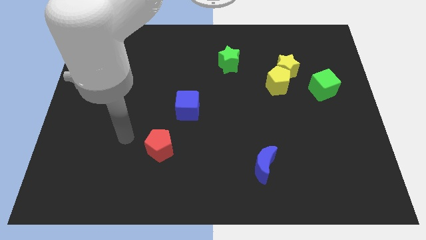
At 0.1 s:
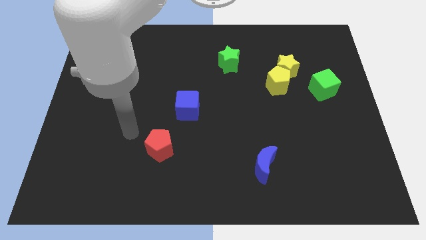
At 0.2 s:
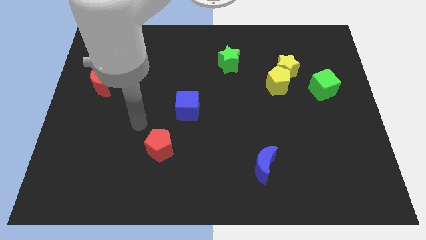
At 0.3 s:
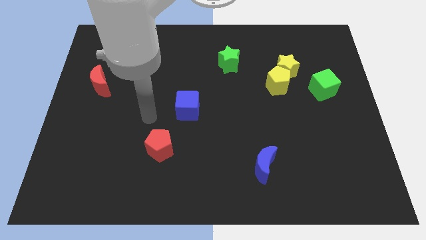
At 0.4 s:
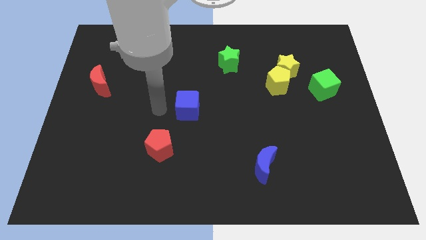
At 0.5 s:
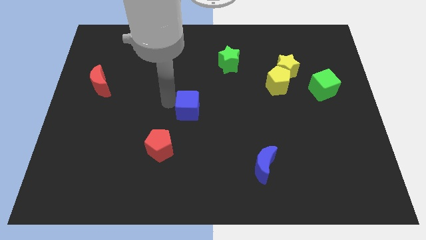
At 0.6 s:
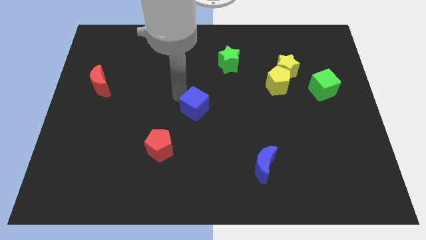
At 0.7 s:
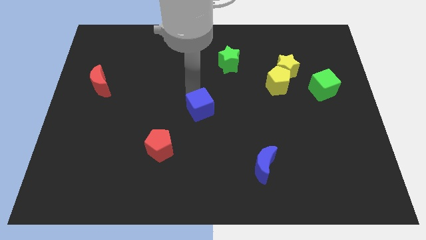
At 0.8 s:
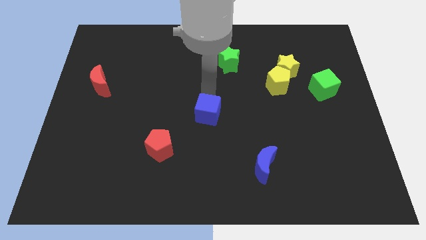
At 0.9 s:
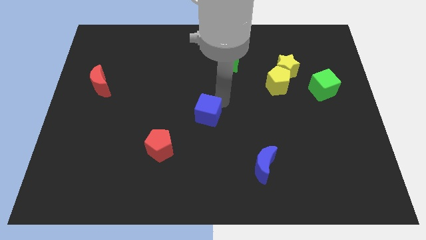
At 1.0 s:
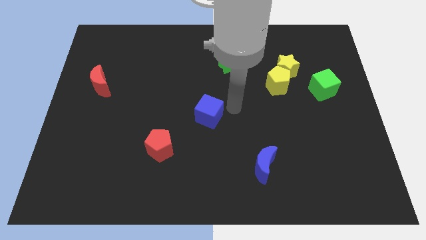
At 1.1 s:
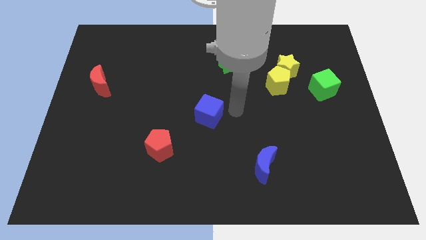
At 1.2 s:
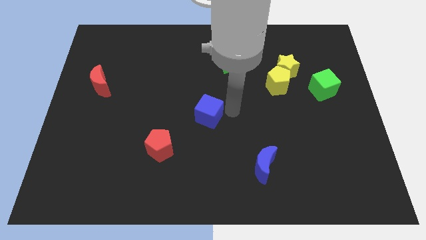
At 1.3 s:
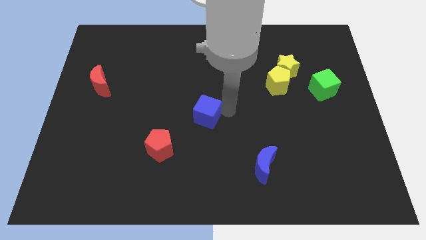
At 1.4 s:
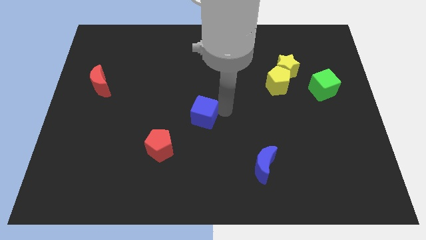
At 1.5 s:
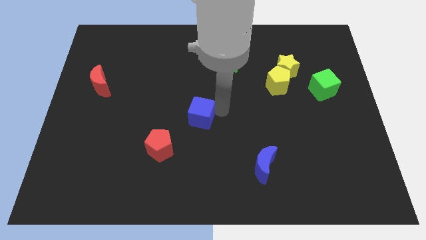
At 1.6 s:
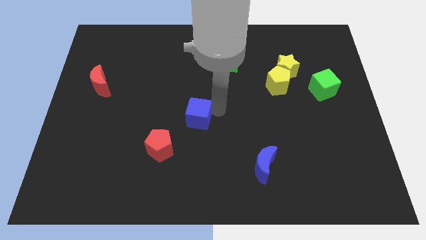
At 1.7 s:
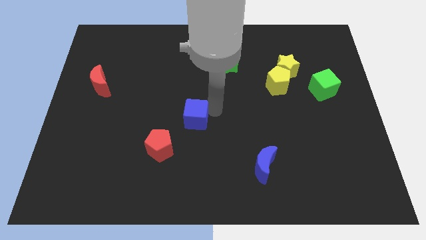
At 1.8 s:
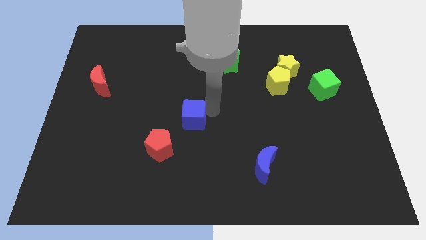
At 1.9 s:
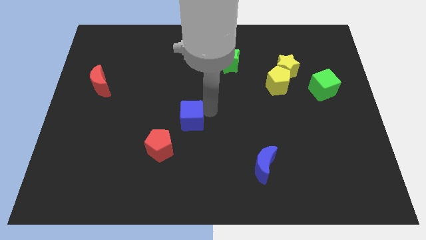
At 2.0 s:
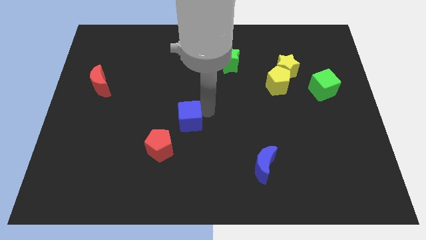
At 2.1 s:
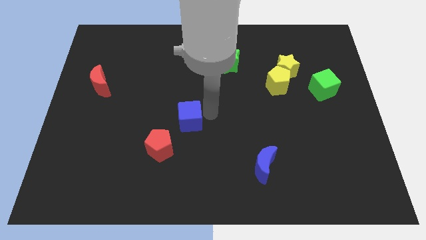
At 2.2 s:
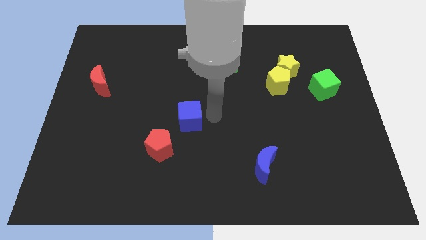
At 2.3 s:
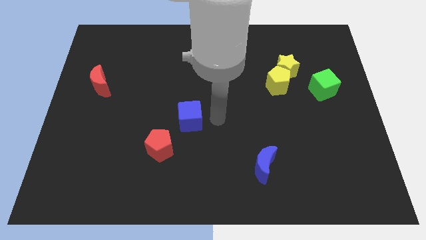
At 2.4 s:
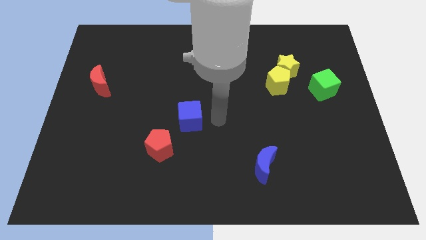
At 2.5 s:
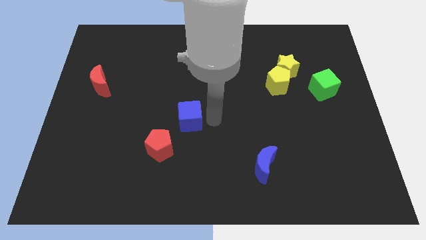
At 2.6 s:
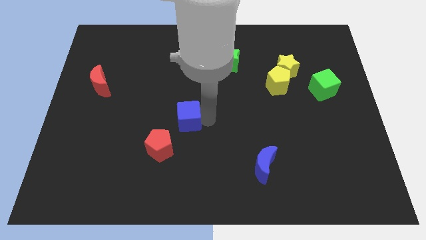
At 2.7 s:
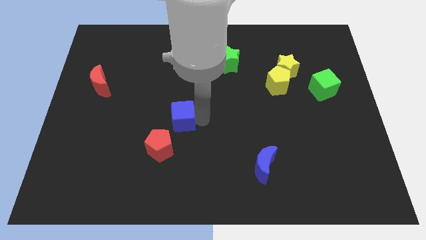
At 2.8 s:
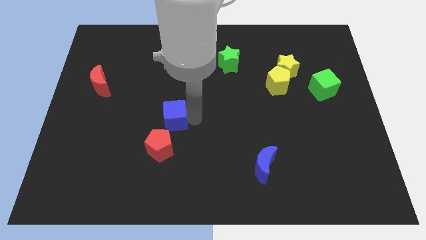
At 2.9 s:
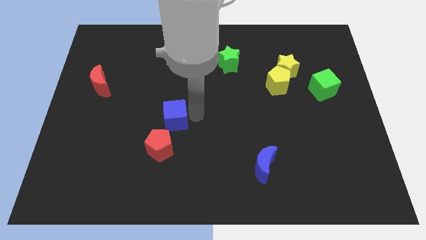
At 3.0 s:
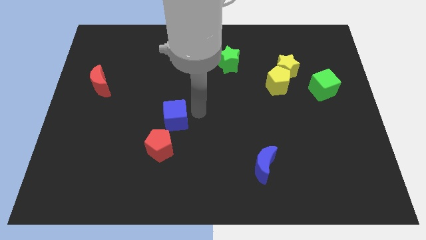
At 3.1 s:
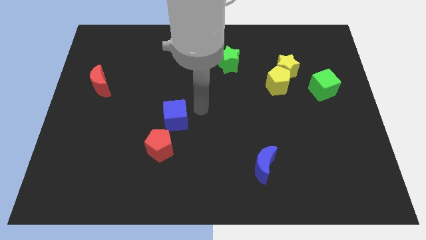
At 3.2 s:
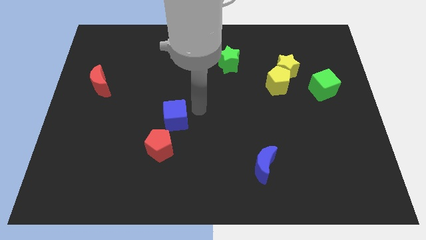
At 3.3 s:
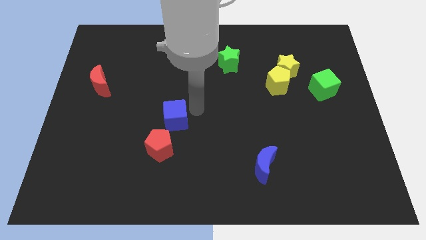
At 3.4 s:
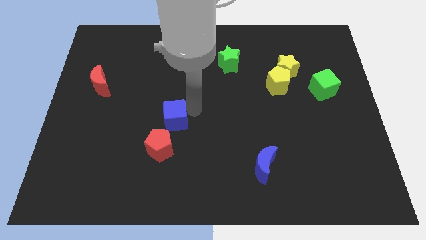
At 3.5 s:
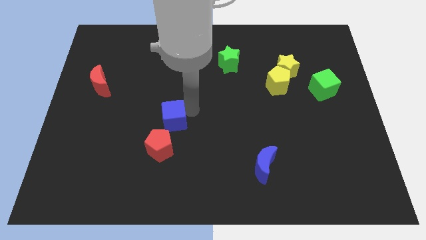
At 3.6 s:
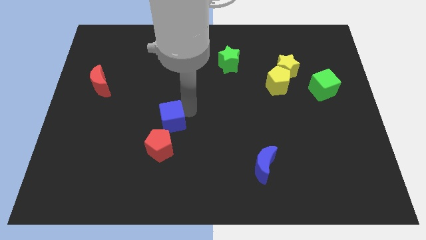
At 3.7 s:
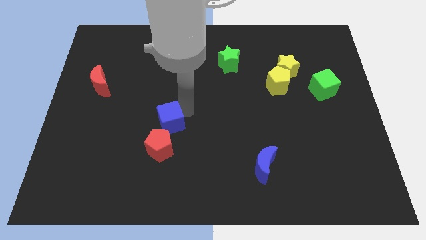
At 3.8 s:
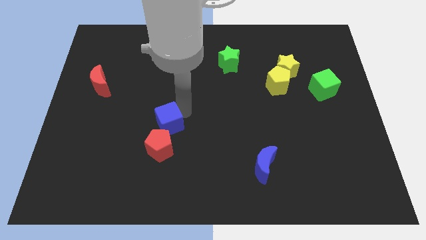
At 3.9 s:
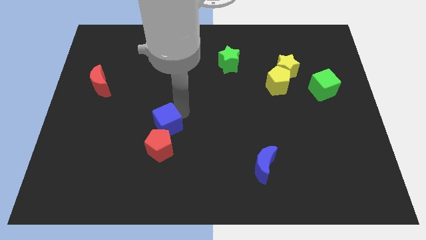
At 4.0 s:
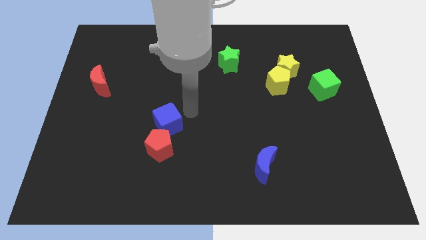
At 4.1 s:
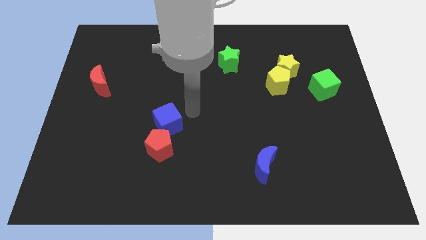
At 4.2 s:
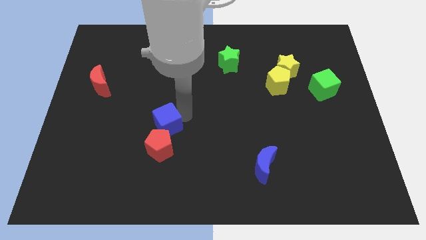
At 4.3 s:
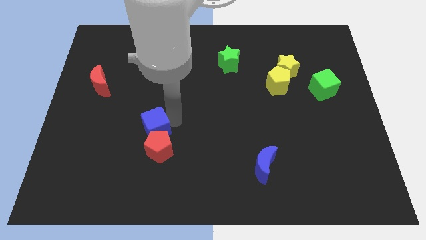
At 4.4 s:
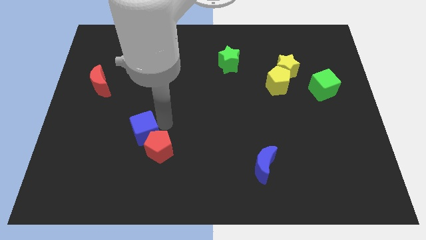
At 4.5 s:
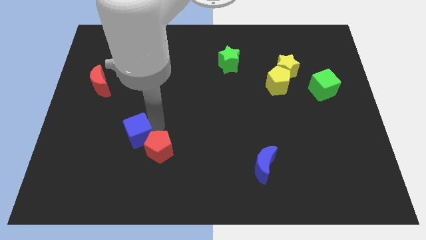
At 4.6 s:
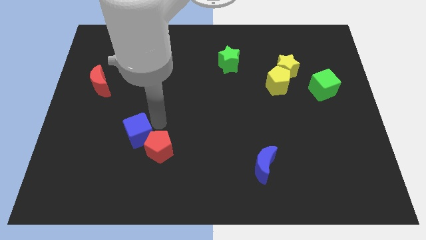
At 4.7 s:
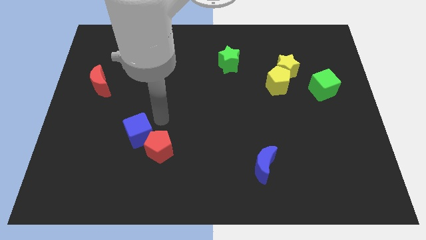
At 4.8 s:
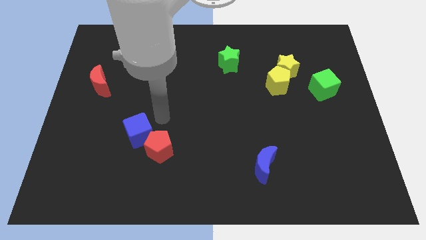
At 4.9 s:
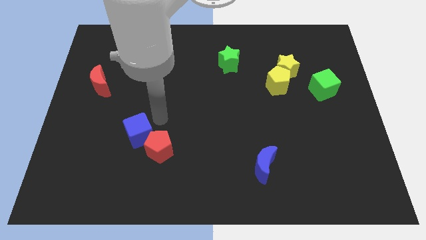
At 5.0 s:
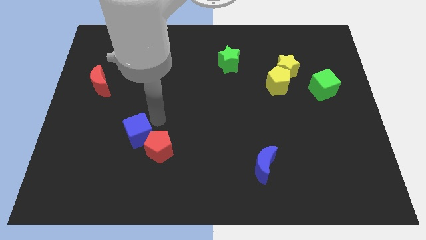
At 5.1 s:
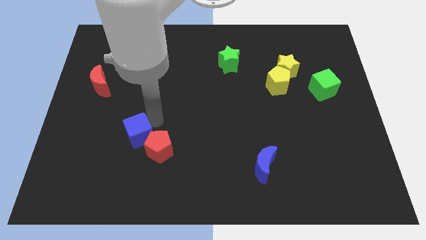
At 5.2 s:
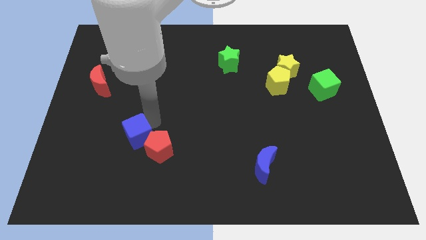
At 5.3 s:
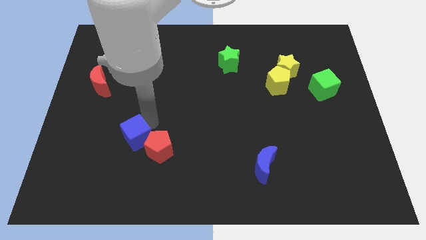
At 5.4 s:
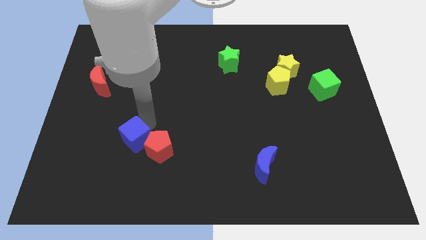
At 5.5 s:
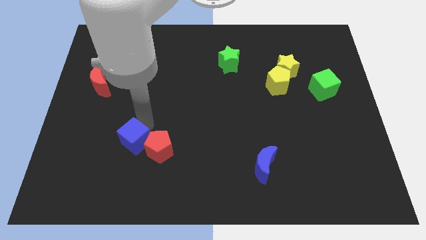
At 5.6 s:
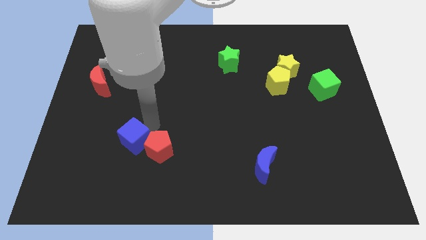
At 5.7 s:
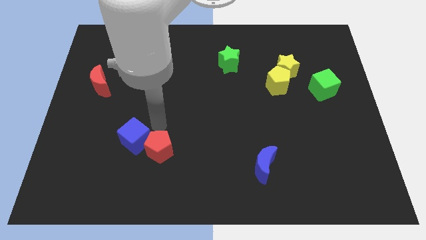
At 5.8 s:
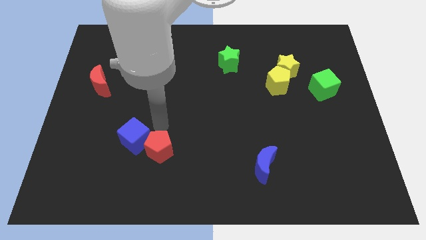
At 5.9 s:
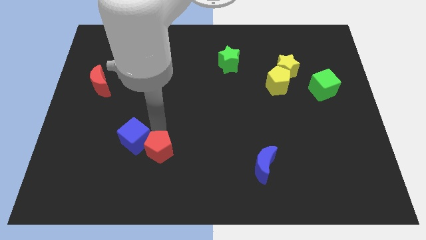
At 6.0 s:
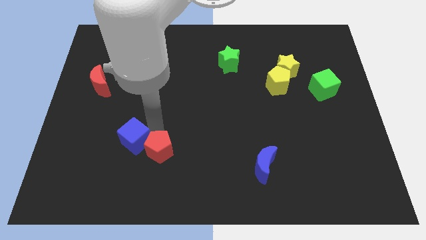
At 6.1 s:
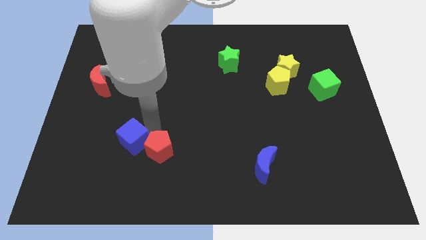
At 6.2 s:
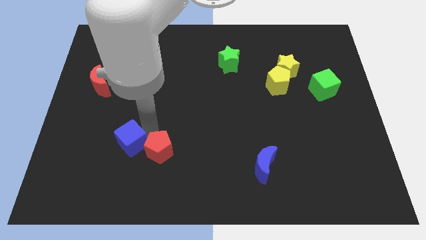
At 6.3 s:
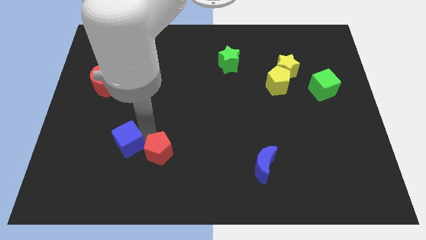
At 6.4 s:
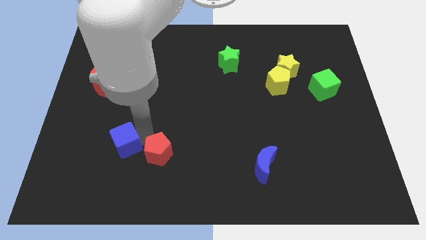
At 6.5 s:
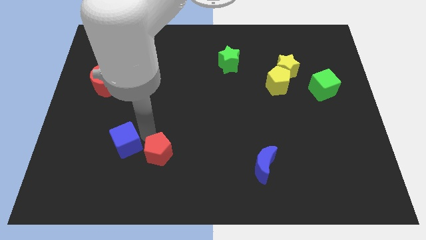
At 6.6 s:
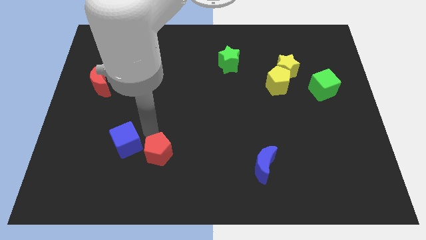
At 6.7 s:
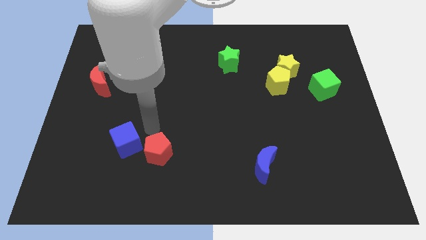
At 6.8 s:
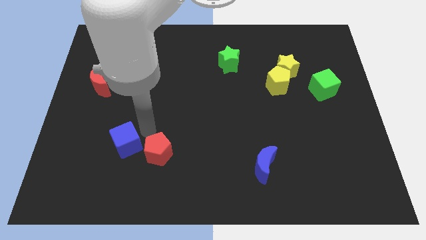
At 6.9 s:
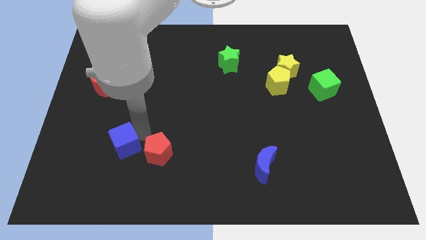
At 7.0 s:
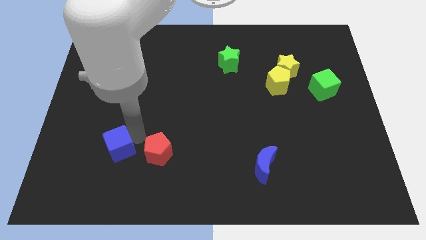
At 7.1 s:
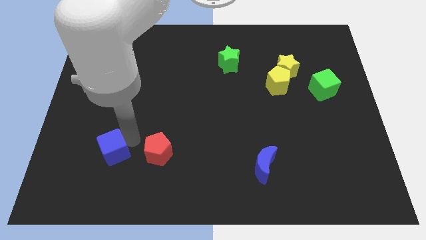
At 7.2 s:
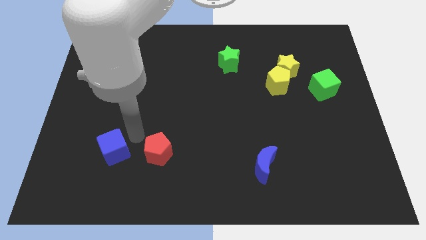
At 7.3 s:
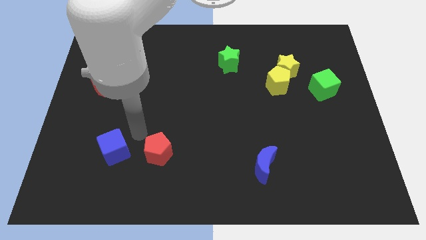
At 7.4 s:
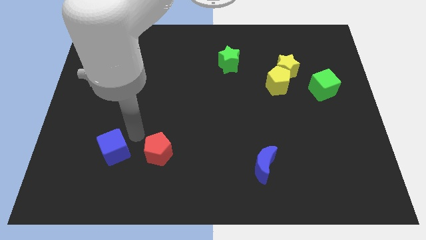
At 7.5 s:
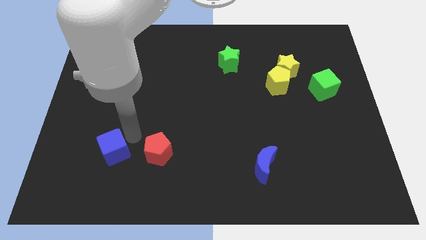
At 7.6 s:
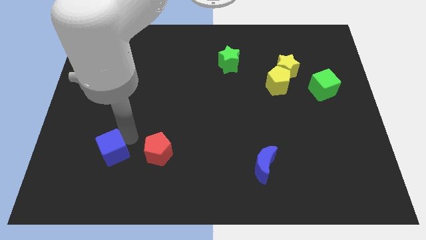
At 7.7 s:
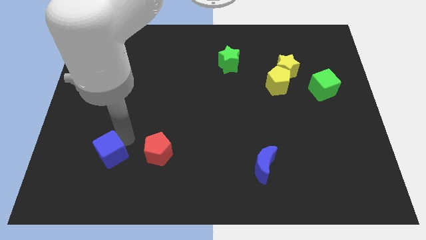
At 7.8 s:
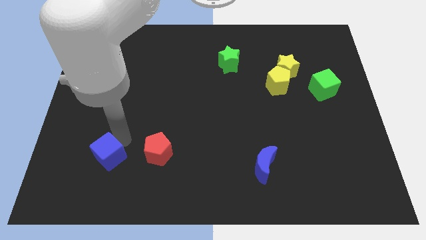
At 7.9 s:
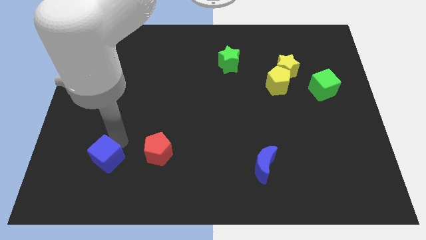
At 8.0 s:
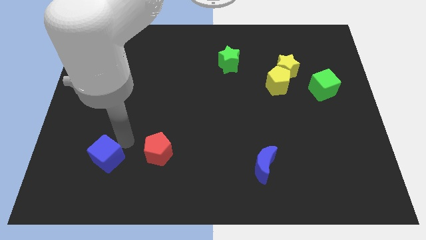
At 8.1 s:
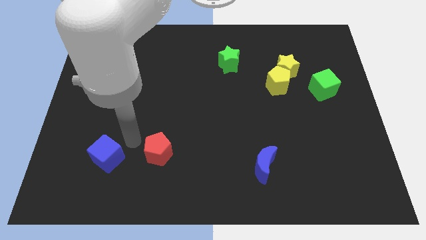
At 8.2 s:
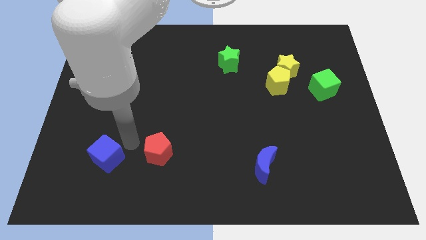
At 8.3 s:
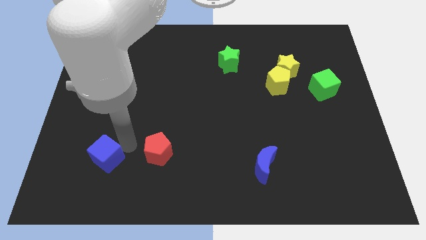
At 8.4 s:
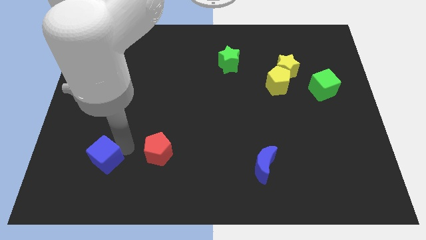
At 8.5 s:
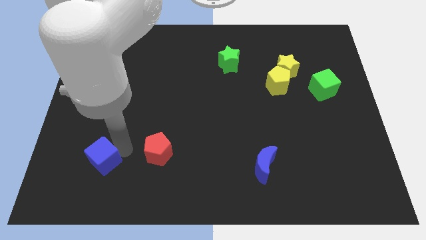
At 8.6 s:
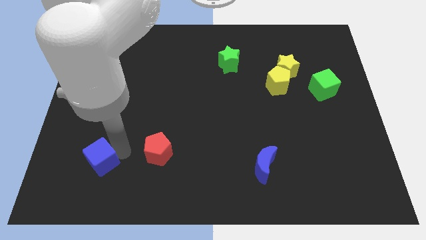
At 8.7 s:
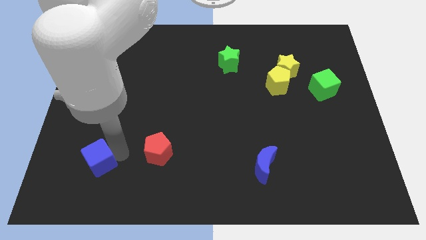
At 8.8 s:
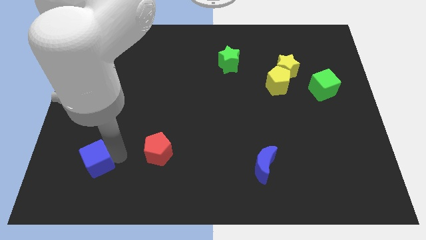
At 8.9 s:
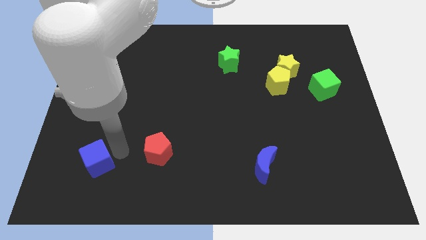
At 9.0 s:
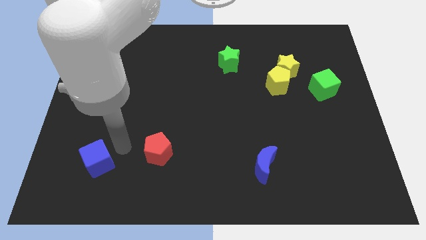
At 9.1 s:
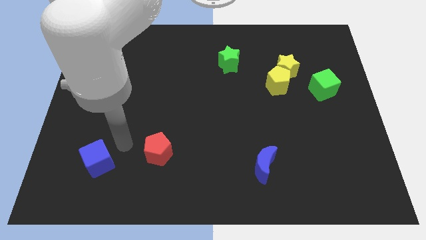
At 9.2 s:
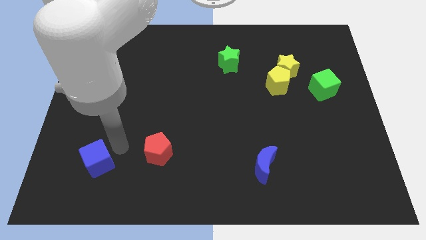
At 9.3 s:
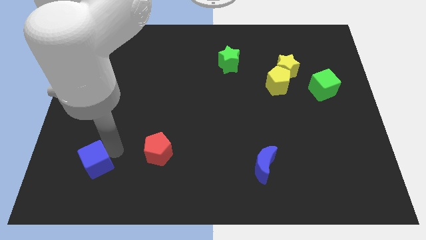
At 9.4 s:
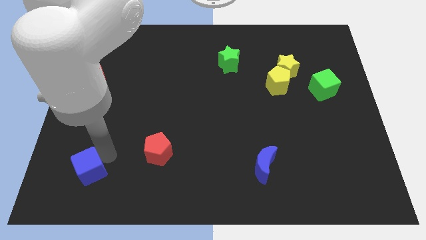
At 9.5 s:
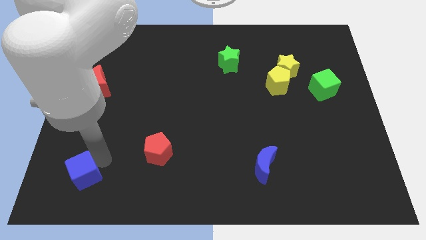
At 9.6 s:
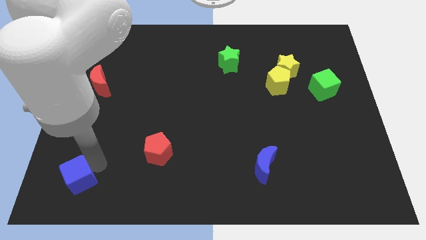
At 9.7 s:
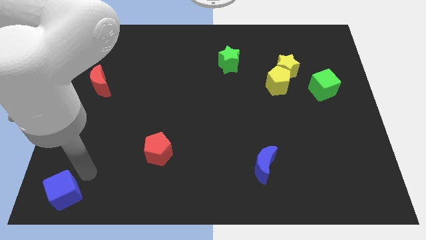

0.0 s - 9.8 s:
put the blue cube to the bottom left
